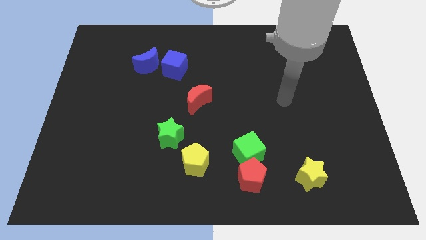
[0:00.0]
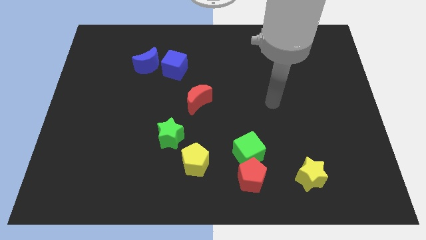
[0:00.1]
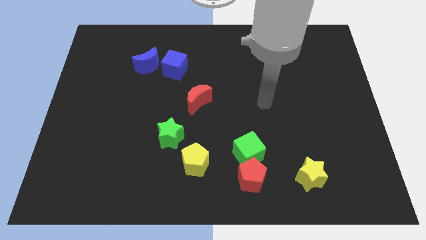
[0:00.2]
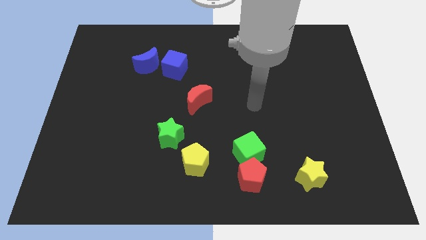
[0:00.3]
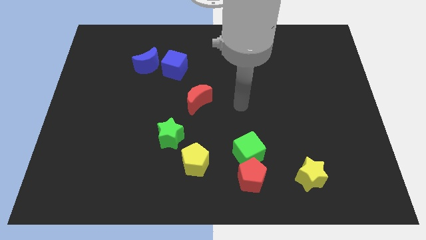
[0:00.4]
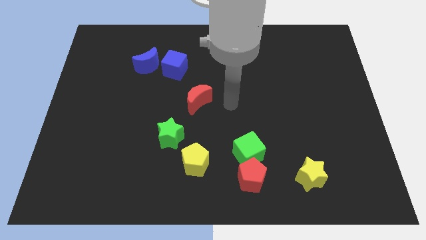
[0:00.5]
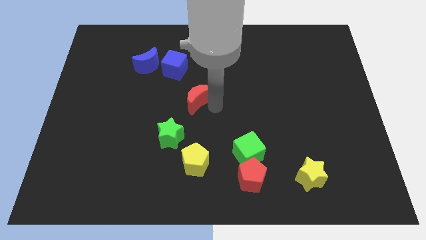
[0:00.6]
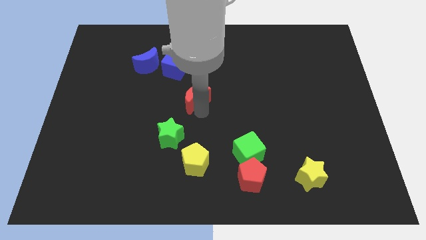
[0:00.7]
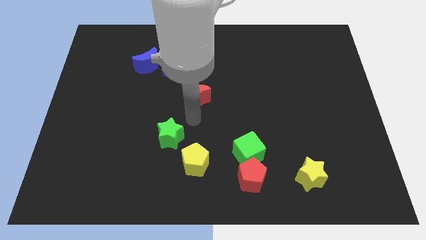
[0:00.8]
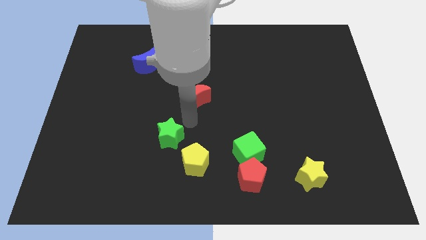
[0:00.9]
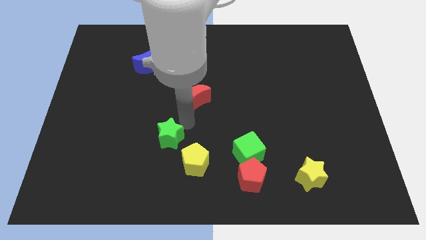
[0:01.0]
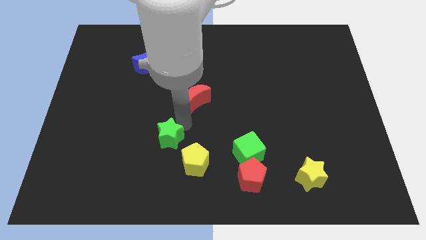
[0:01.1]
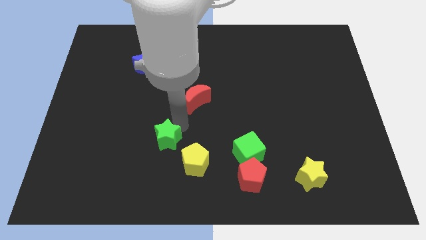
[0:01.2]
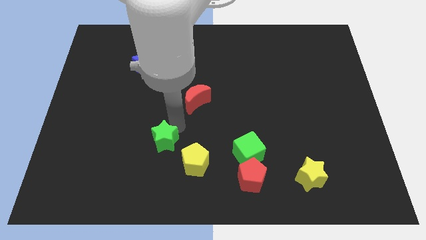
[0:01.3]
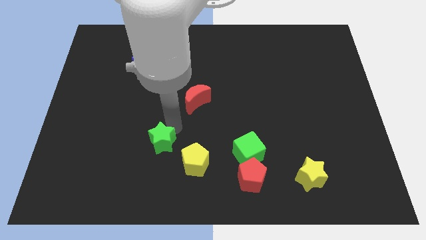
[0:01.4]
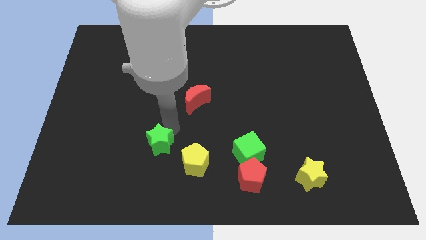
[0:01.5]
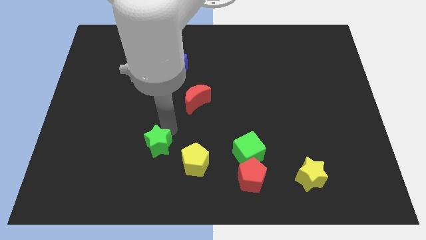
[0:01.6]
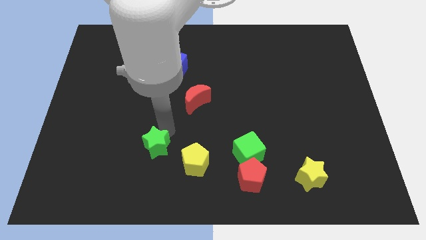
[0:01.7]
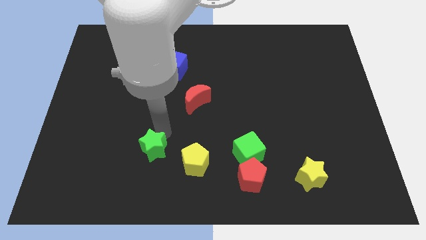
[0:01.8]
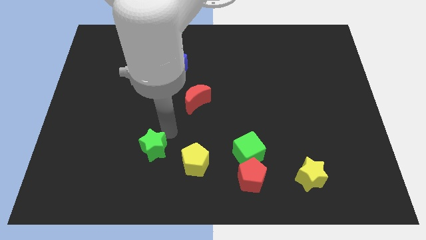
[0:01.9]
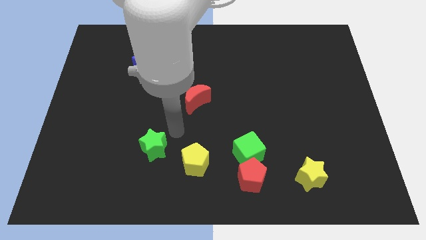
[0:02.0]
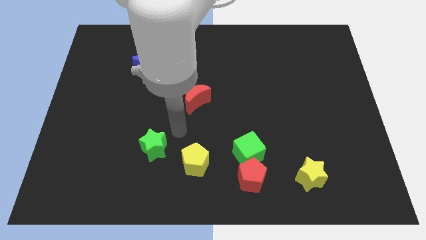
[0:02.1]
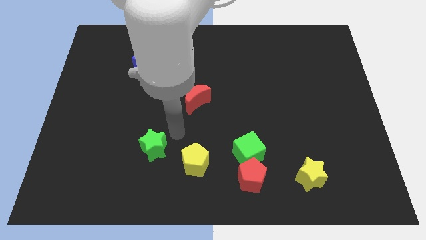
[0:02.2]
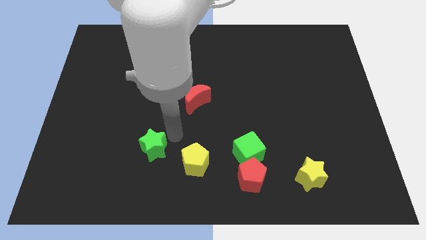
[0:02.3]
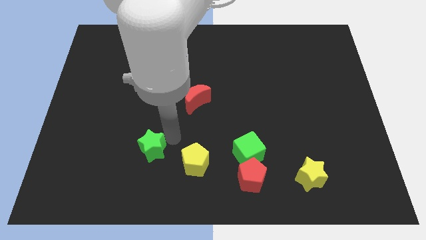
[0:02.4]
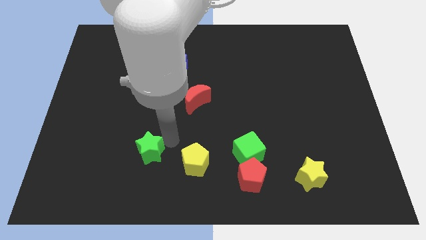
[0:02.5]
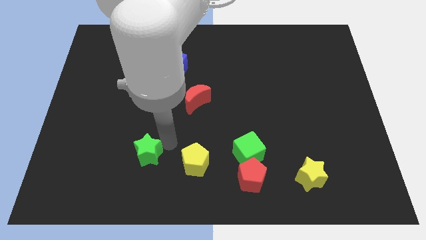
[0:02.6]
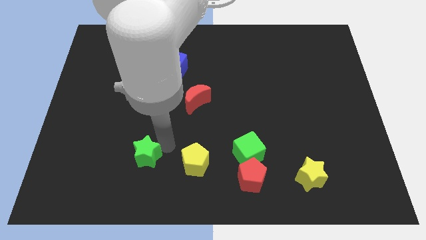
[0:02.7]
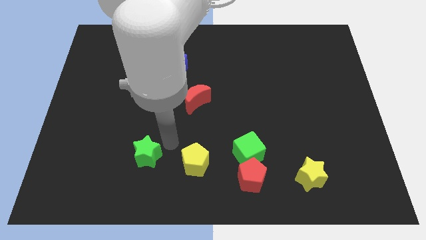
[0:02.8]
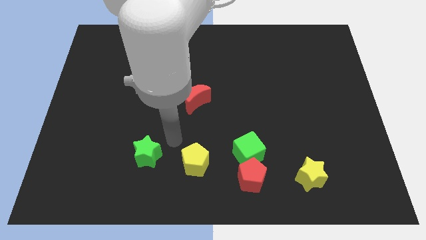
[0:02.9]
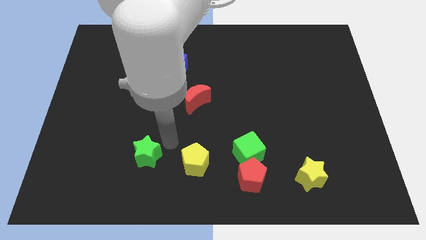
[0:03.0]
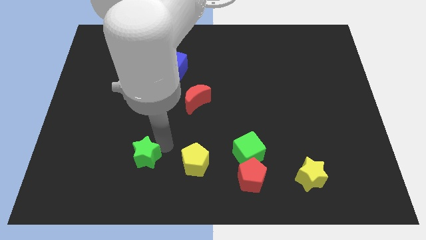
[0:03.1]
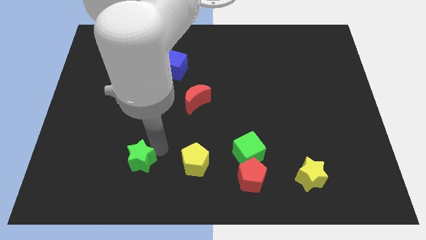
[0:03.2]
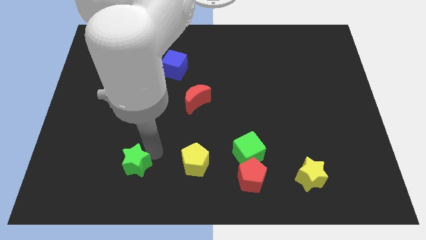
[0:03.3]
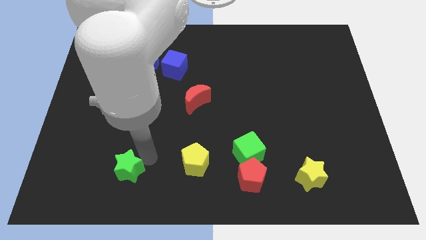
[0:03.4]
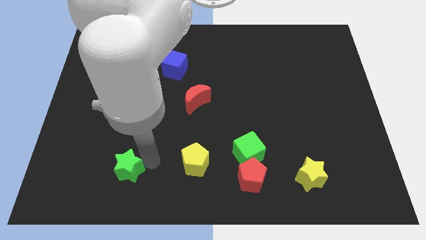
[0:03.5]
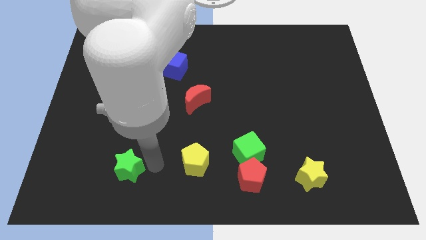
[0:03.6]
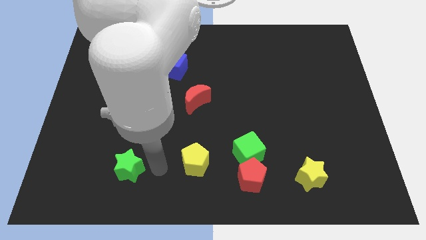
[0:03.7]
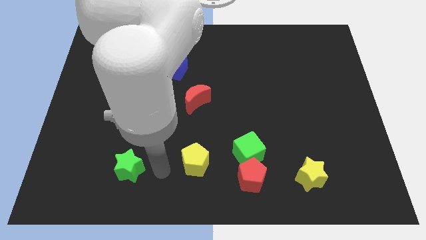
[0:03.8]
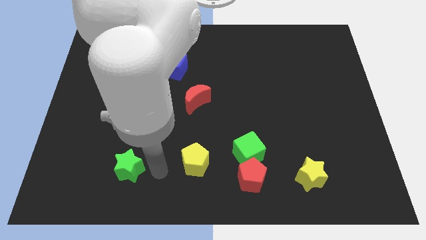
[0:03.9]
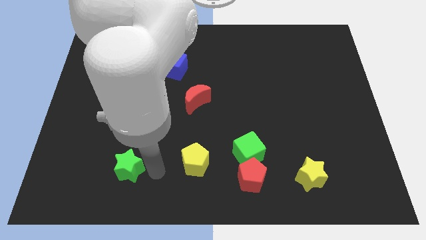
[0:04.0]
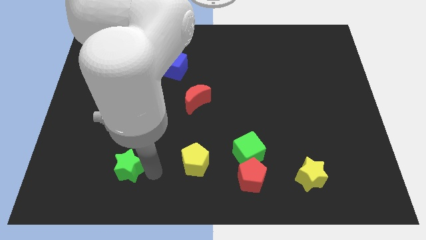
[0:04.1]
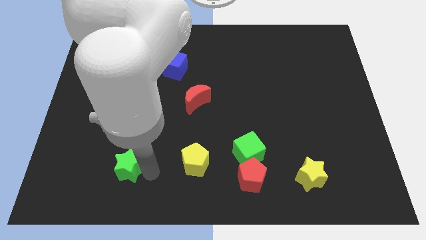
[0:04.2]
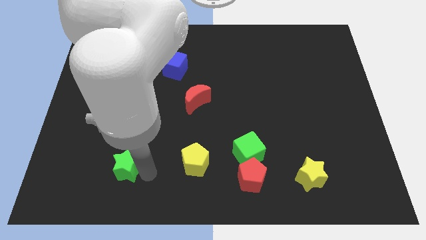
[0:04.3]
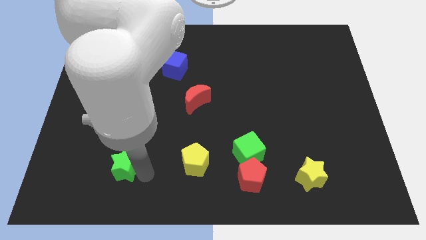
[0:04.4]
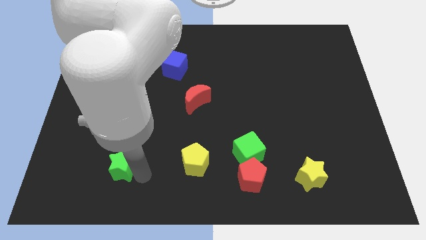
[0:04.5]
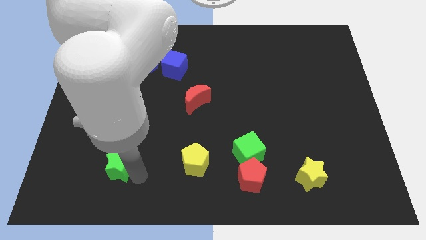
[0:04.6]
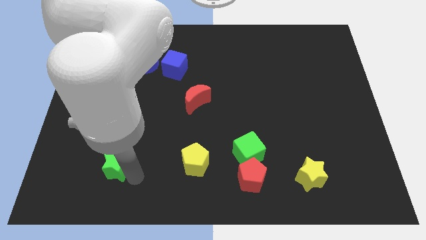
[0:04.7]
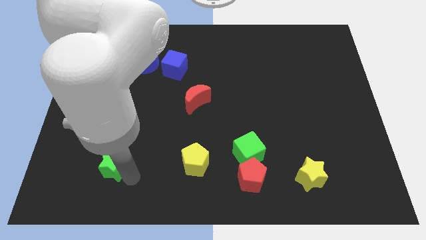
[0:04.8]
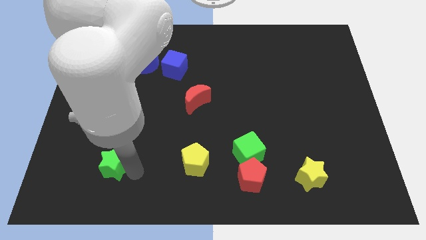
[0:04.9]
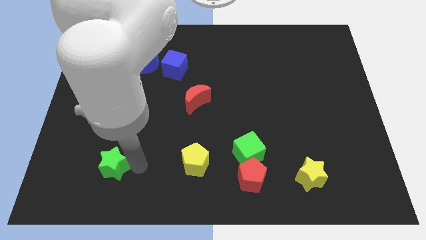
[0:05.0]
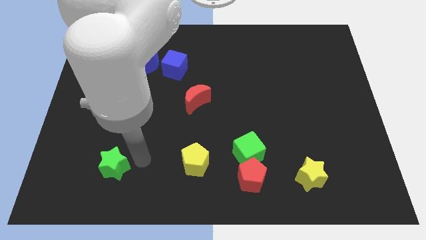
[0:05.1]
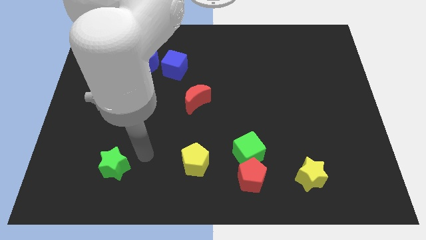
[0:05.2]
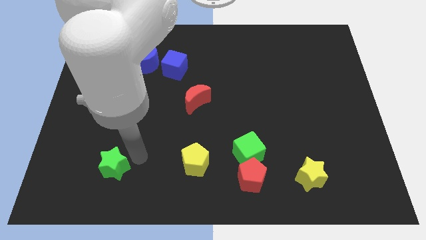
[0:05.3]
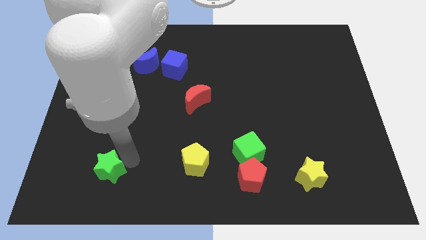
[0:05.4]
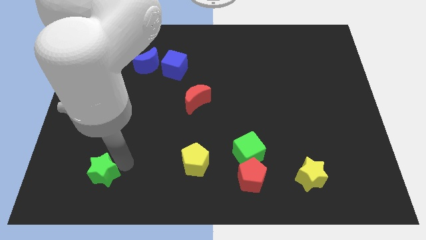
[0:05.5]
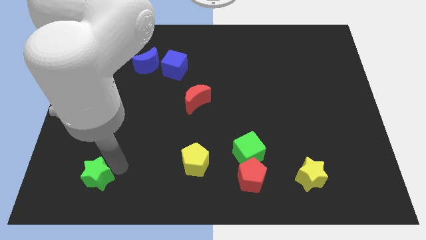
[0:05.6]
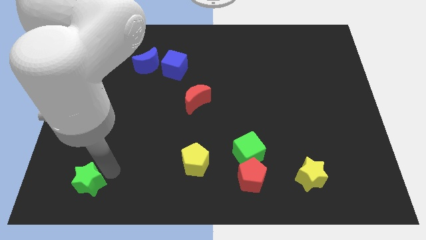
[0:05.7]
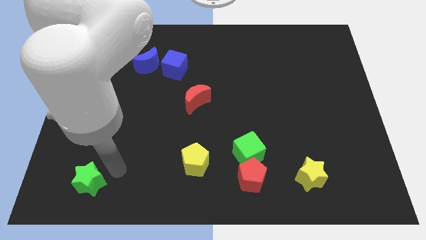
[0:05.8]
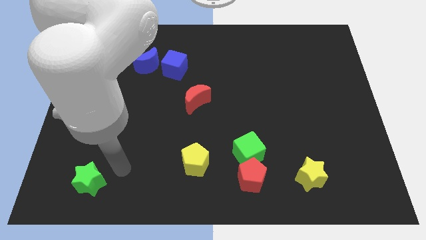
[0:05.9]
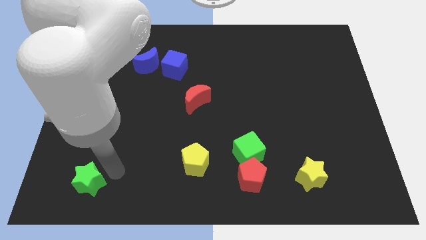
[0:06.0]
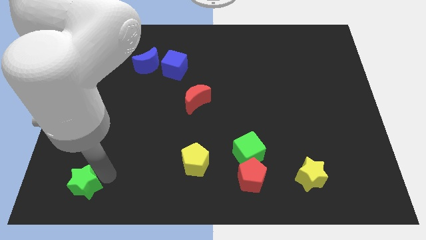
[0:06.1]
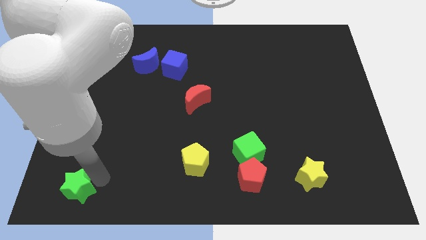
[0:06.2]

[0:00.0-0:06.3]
put the green star to the lower left corner
